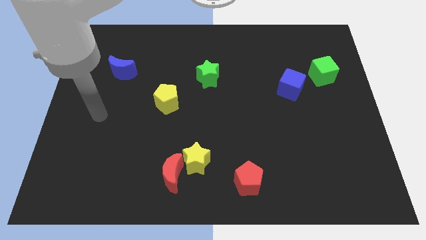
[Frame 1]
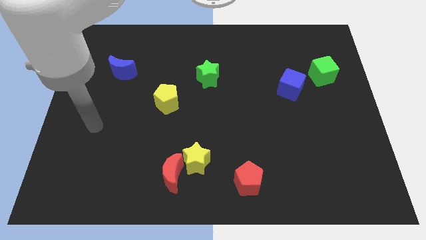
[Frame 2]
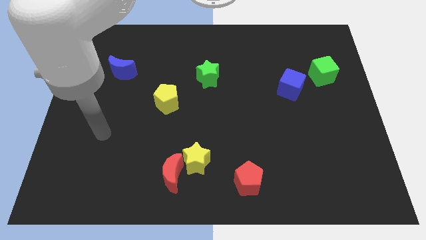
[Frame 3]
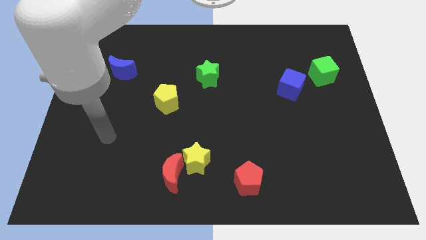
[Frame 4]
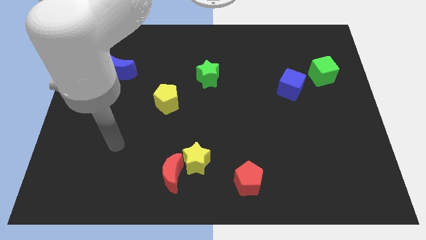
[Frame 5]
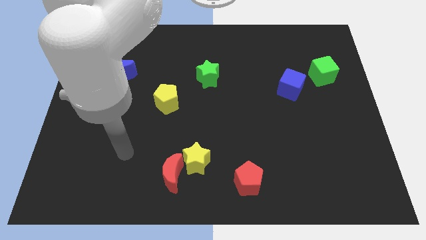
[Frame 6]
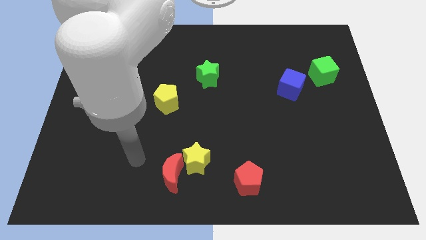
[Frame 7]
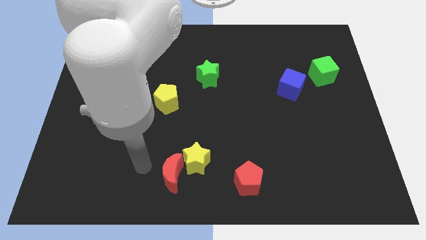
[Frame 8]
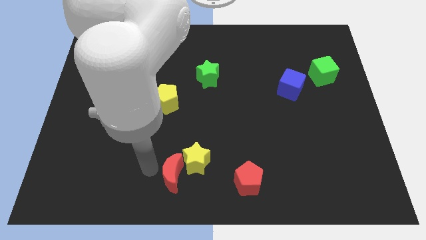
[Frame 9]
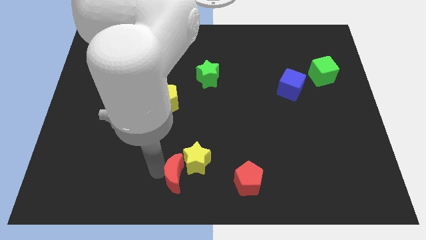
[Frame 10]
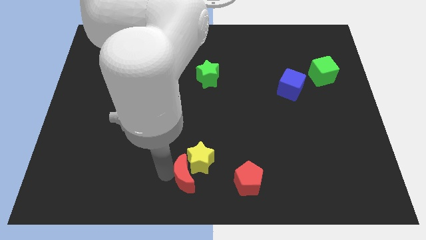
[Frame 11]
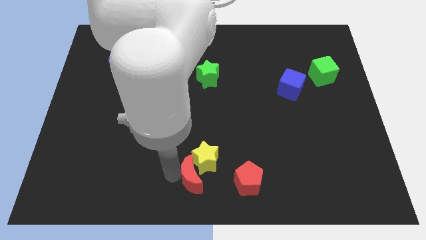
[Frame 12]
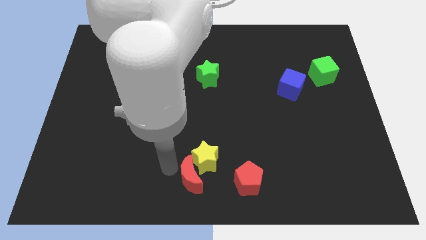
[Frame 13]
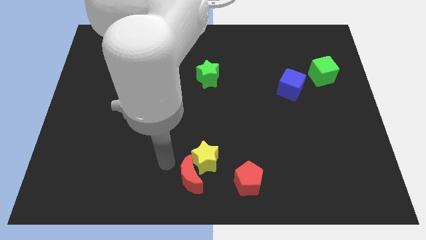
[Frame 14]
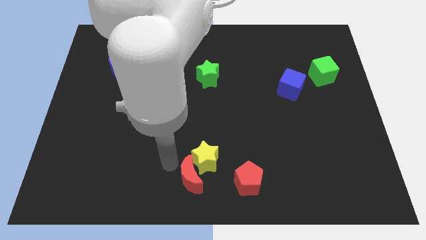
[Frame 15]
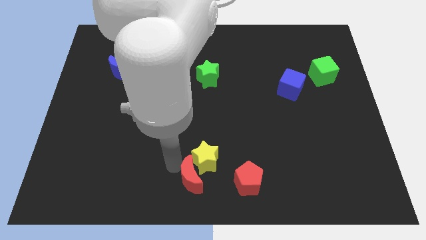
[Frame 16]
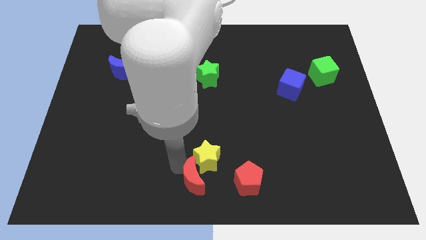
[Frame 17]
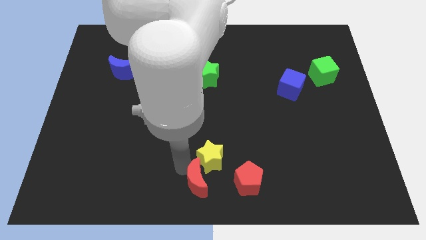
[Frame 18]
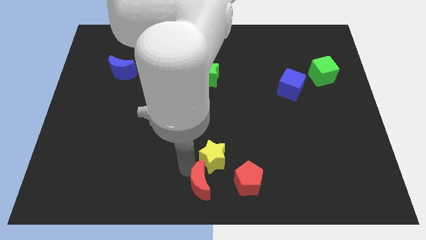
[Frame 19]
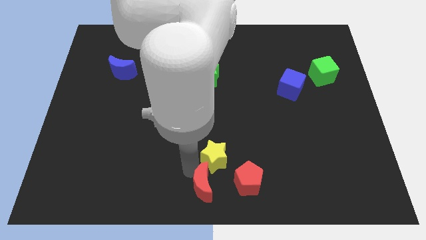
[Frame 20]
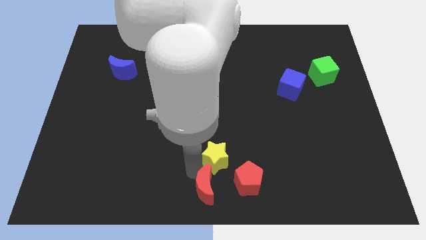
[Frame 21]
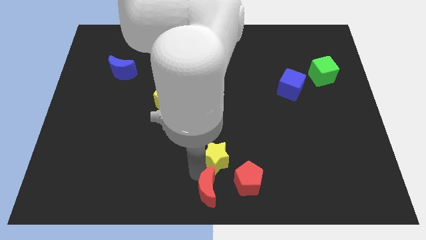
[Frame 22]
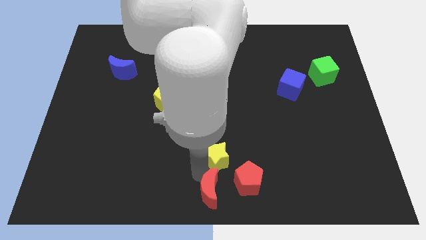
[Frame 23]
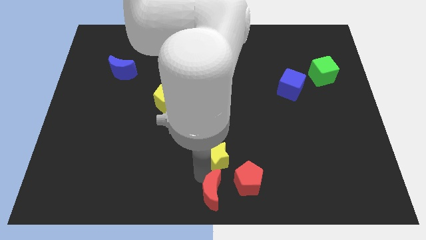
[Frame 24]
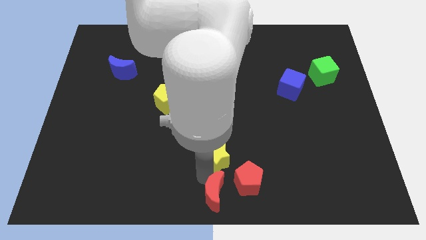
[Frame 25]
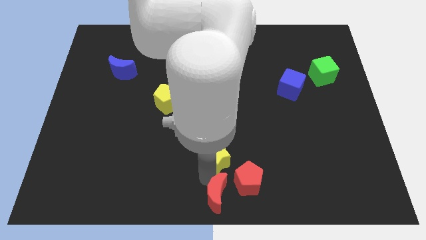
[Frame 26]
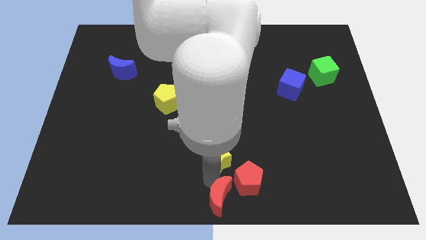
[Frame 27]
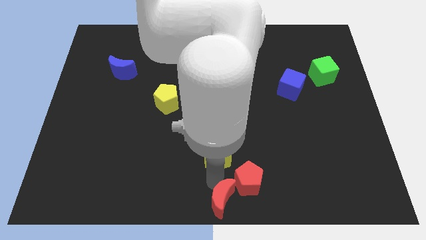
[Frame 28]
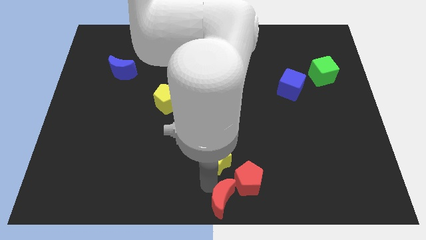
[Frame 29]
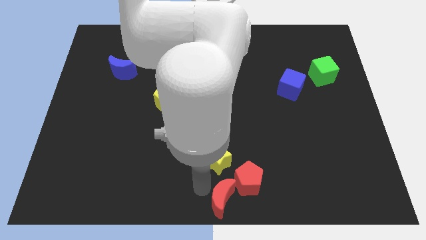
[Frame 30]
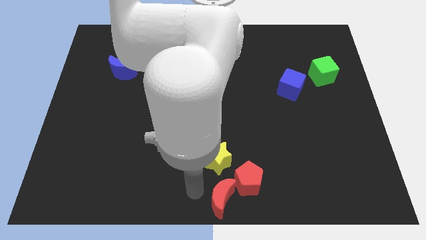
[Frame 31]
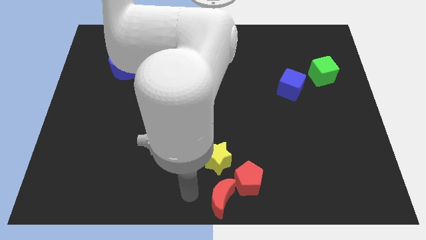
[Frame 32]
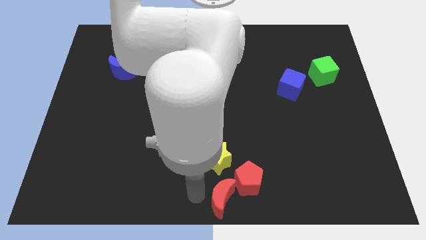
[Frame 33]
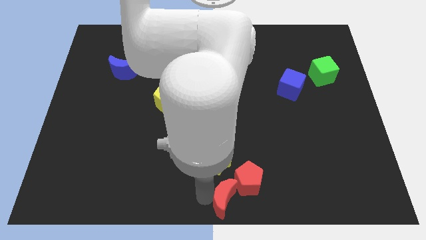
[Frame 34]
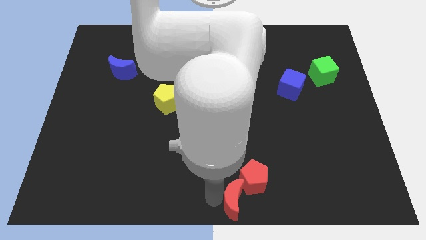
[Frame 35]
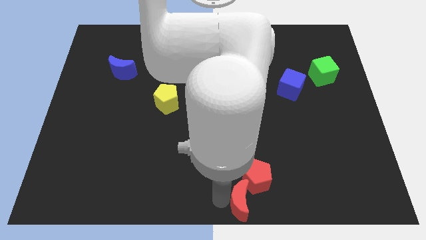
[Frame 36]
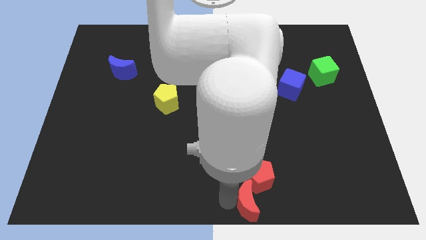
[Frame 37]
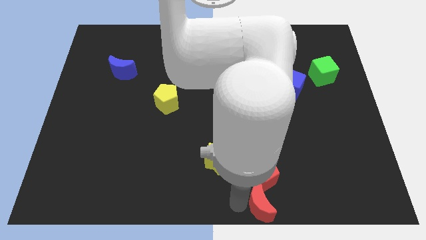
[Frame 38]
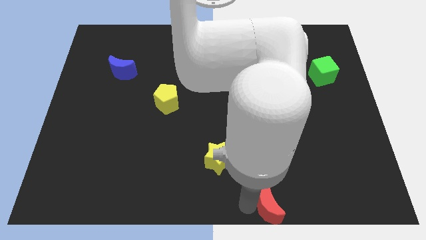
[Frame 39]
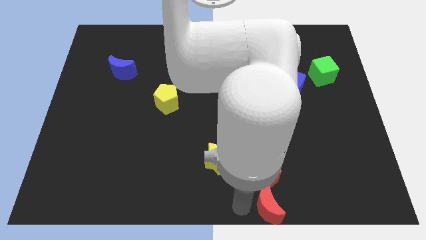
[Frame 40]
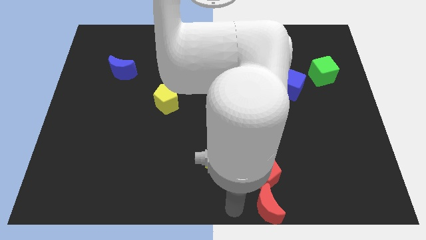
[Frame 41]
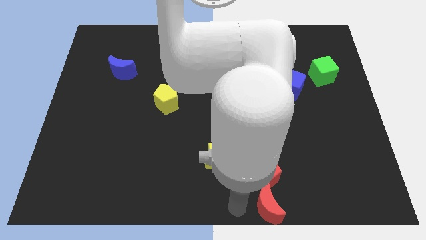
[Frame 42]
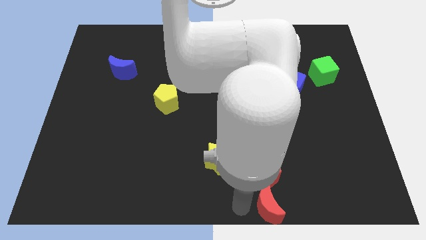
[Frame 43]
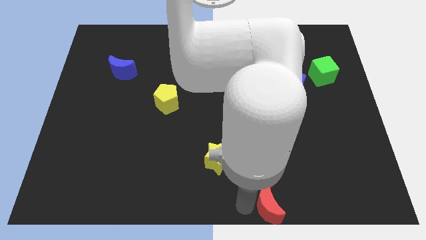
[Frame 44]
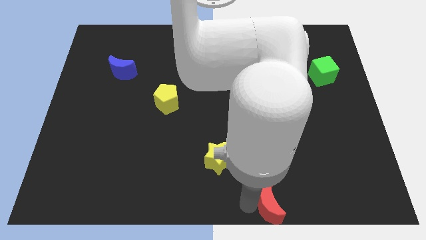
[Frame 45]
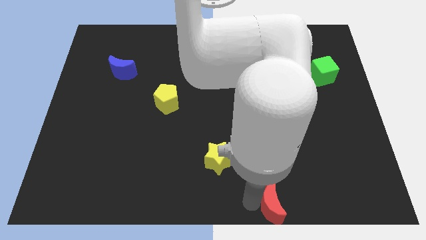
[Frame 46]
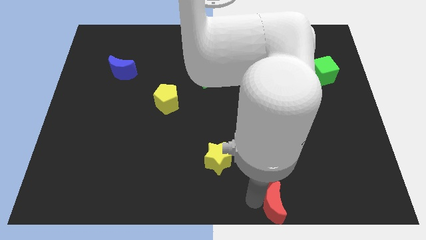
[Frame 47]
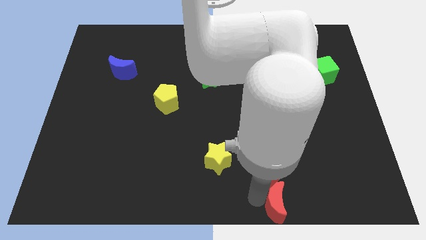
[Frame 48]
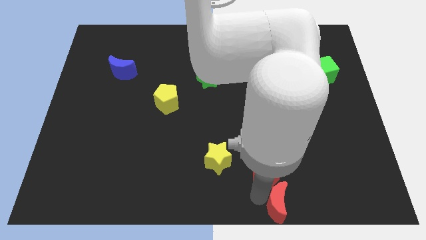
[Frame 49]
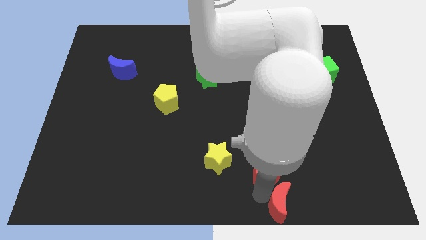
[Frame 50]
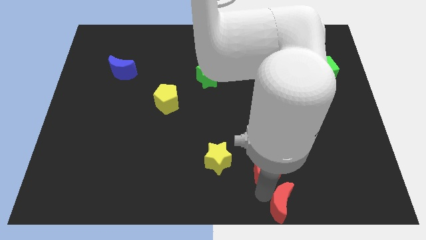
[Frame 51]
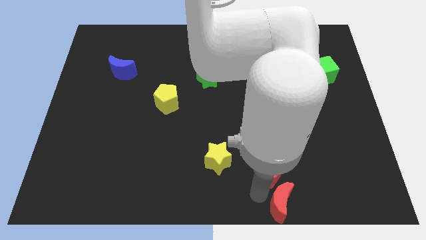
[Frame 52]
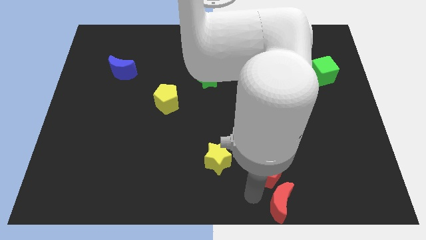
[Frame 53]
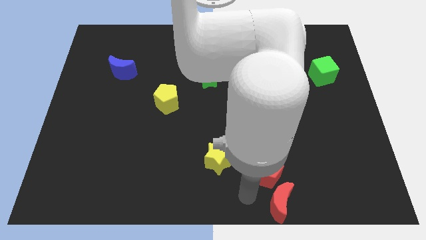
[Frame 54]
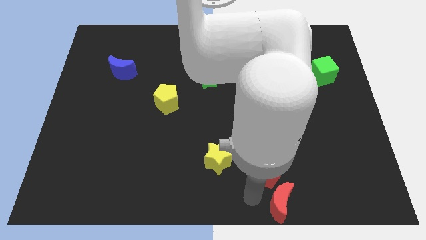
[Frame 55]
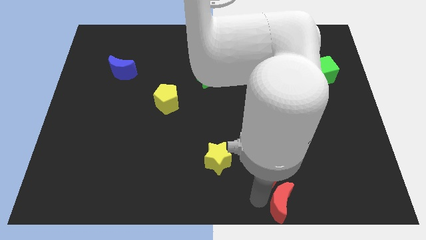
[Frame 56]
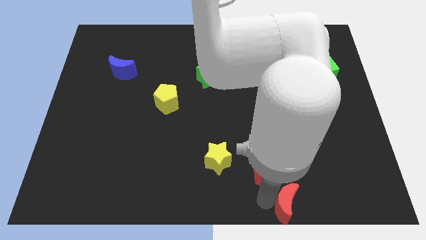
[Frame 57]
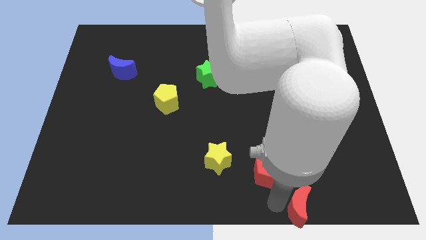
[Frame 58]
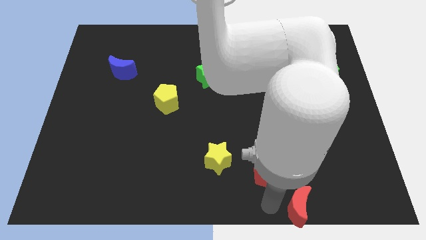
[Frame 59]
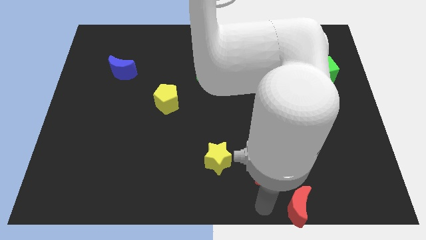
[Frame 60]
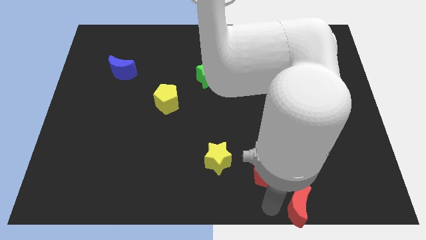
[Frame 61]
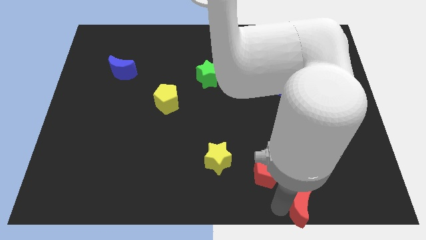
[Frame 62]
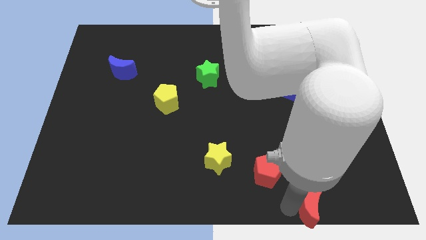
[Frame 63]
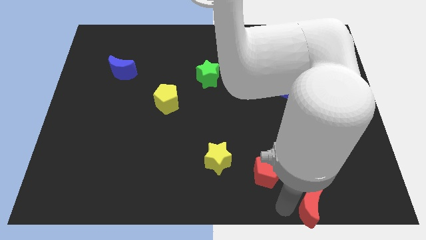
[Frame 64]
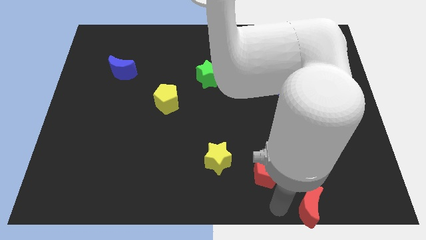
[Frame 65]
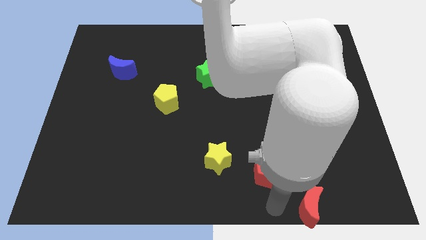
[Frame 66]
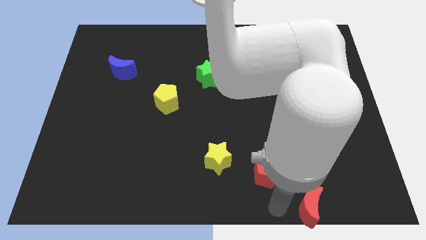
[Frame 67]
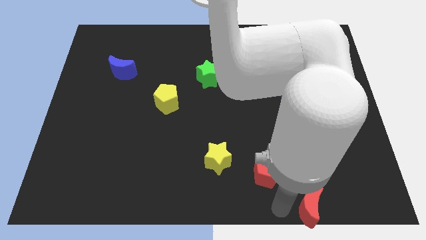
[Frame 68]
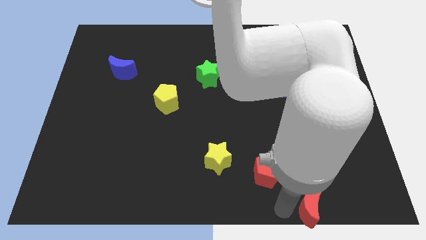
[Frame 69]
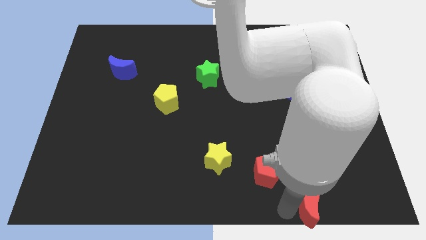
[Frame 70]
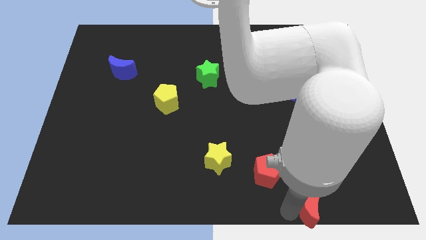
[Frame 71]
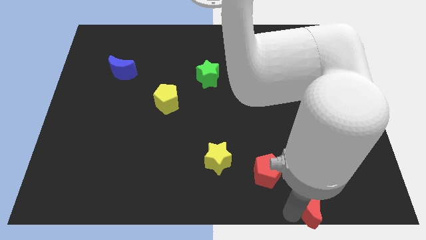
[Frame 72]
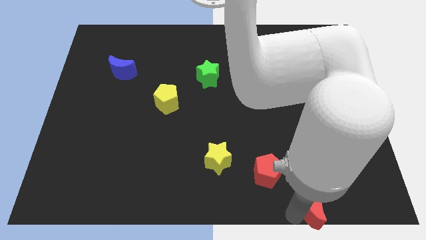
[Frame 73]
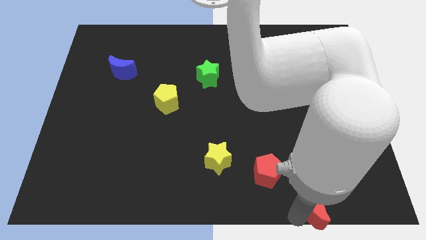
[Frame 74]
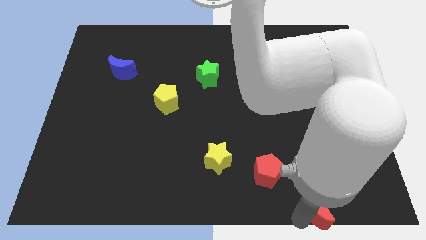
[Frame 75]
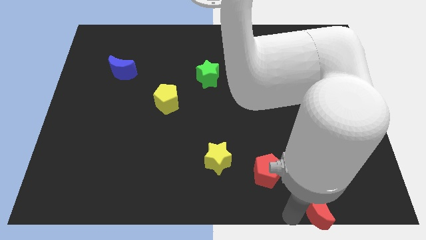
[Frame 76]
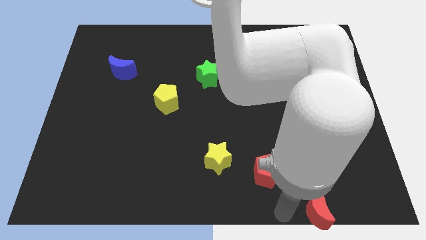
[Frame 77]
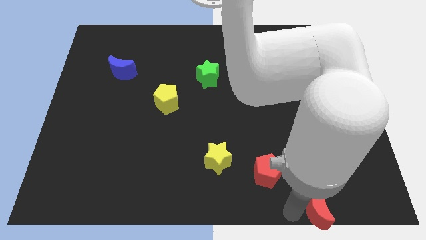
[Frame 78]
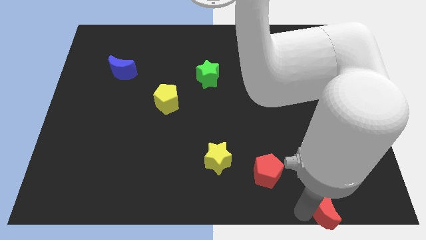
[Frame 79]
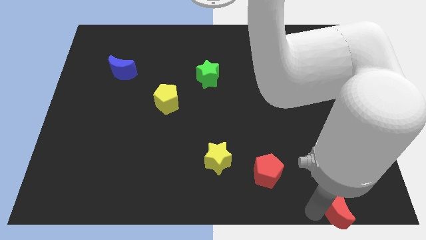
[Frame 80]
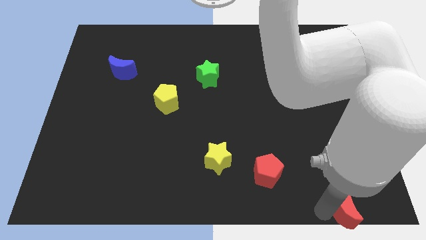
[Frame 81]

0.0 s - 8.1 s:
push the red moon to the bottom right of the board
